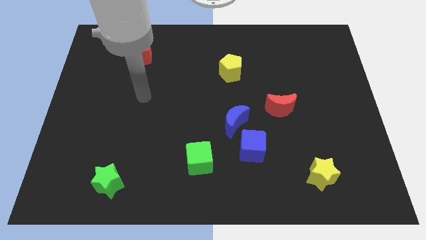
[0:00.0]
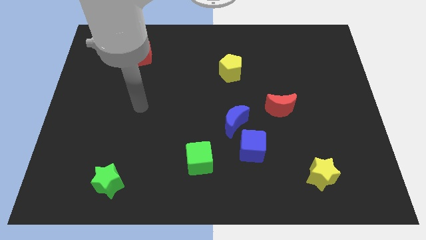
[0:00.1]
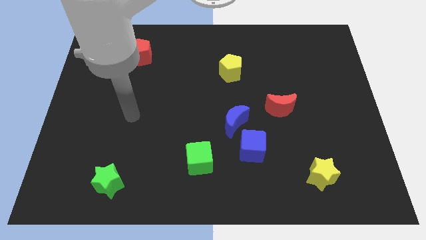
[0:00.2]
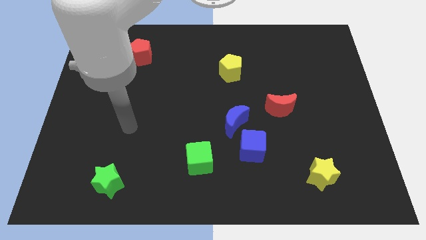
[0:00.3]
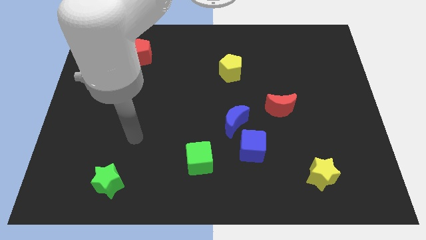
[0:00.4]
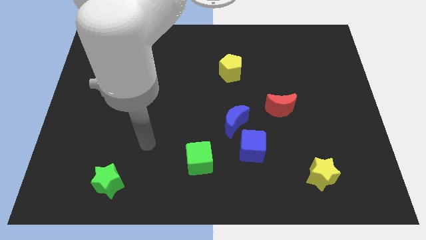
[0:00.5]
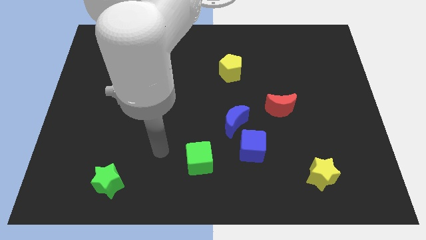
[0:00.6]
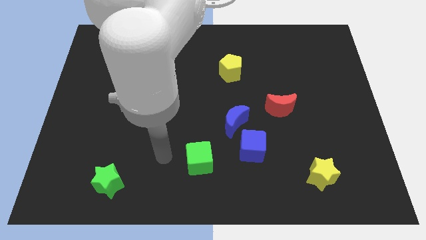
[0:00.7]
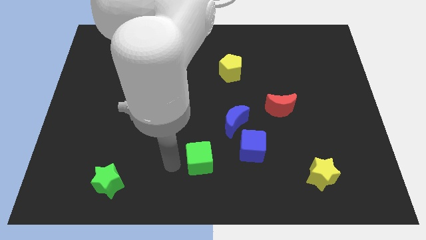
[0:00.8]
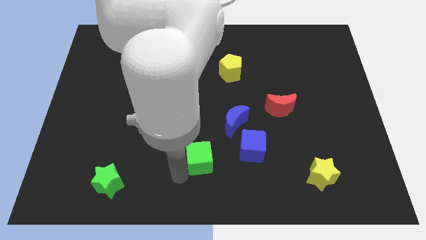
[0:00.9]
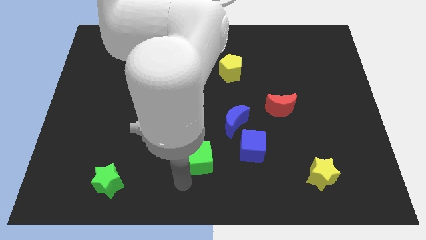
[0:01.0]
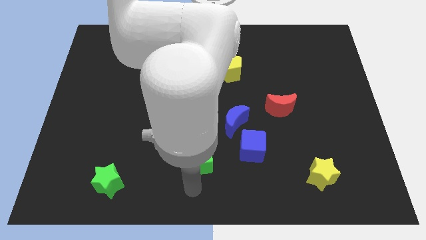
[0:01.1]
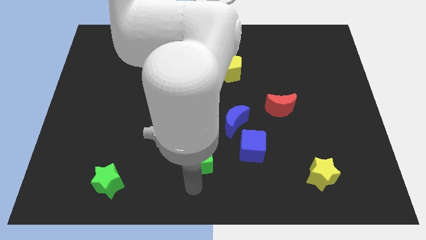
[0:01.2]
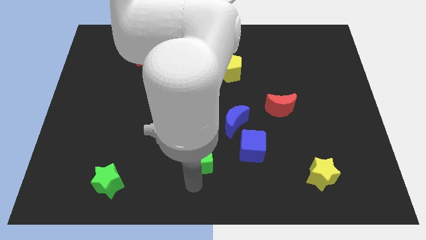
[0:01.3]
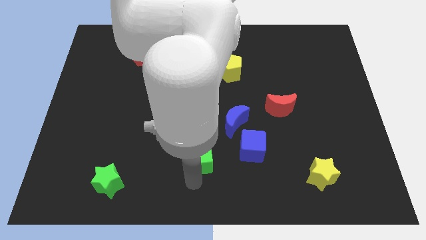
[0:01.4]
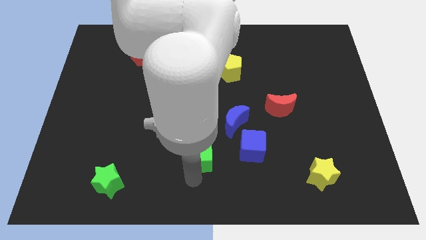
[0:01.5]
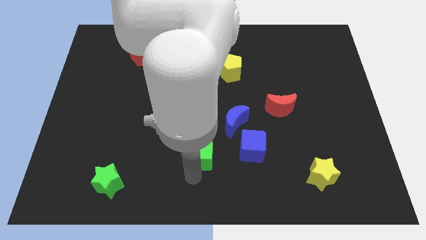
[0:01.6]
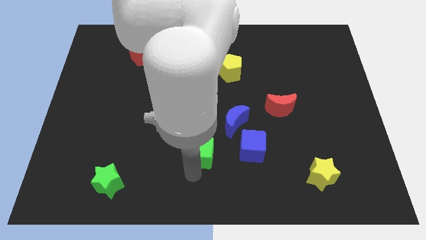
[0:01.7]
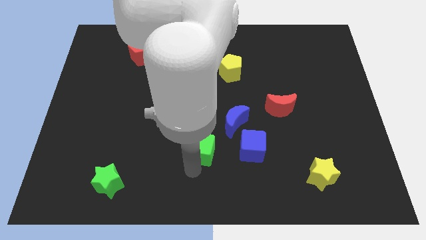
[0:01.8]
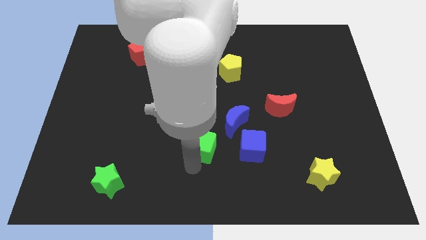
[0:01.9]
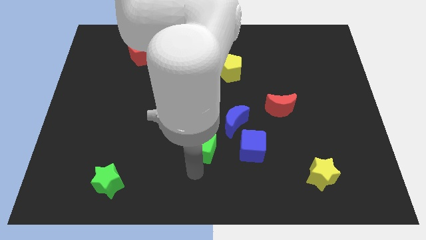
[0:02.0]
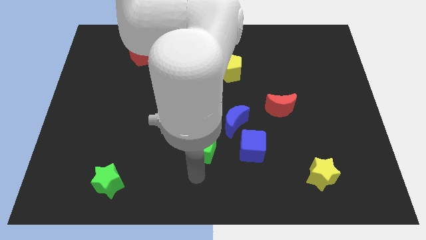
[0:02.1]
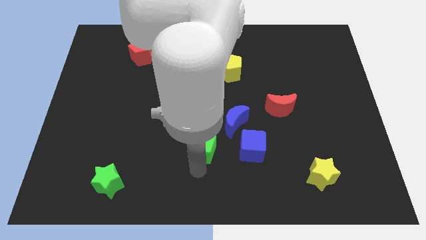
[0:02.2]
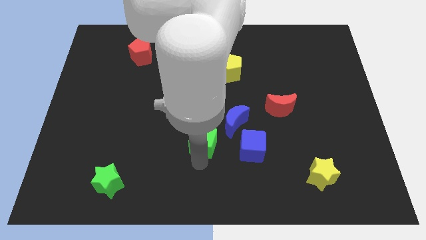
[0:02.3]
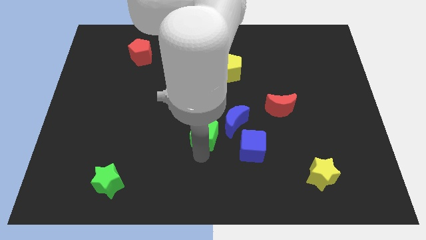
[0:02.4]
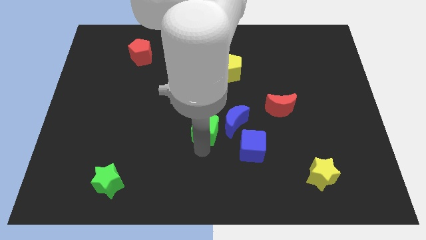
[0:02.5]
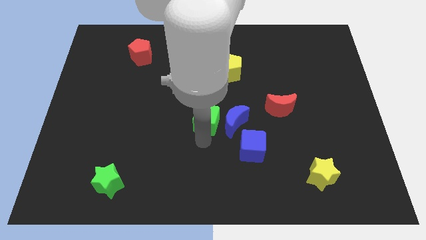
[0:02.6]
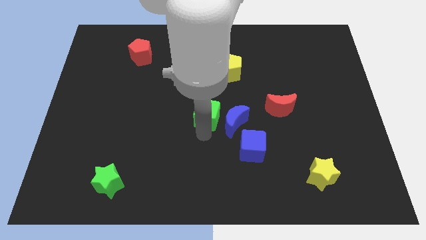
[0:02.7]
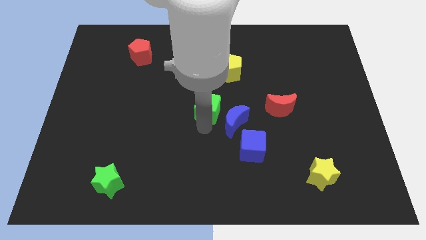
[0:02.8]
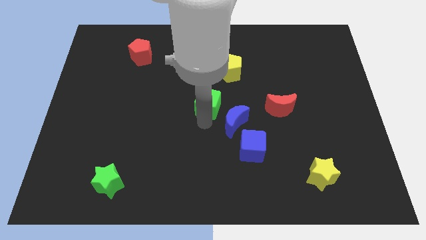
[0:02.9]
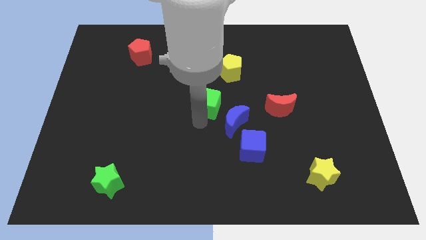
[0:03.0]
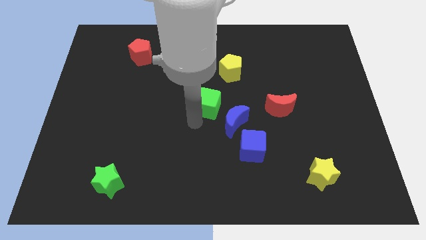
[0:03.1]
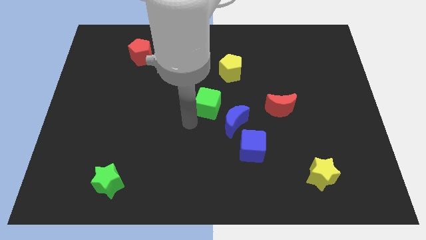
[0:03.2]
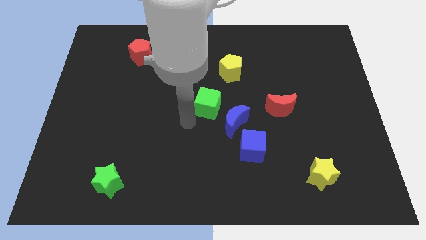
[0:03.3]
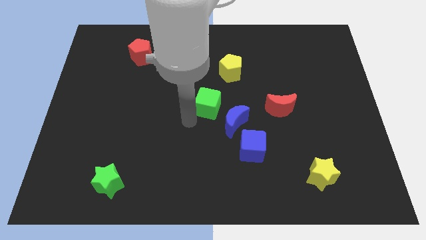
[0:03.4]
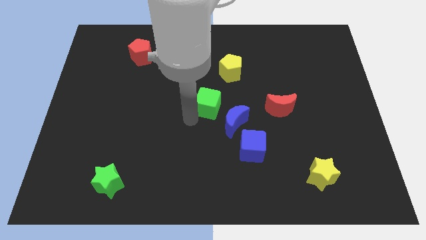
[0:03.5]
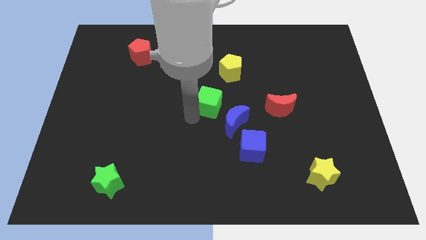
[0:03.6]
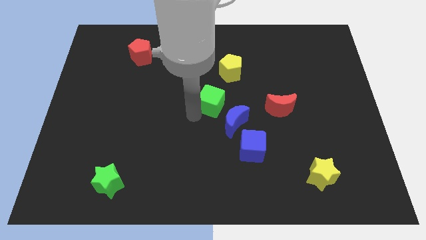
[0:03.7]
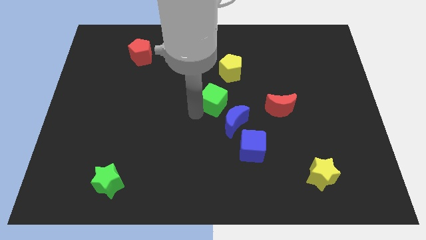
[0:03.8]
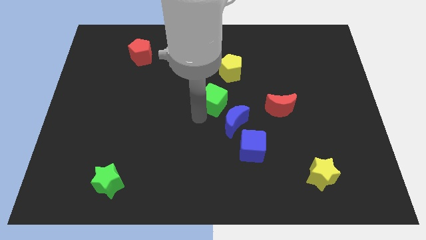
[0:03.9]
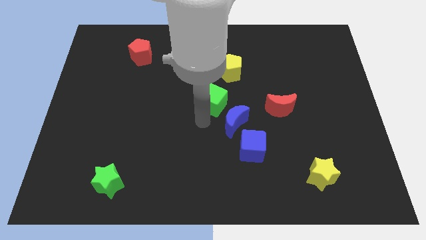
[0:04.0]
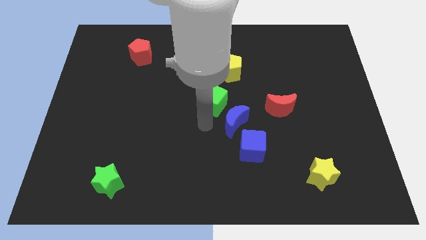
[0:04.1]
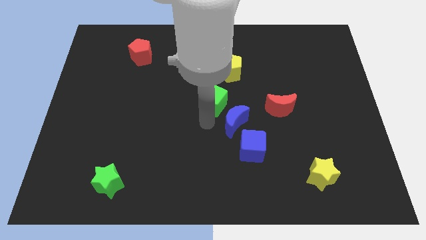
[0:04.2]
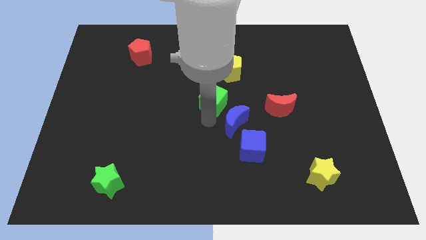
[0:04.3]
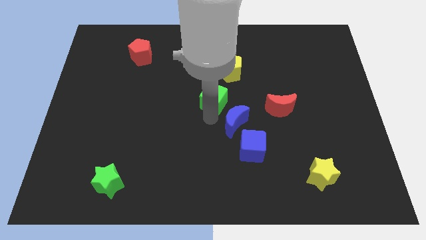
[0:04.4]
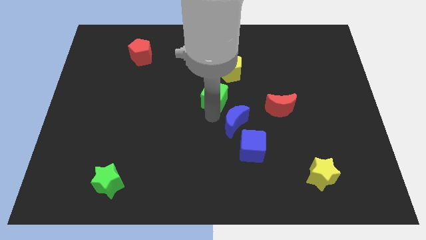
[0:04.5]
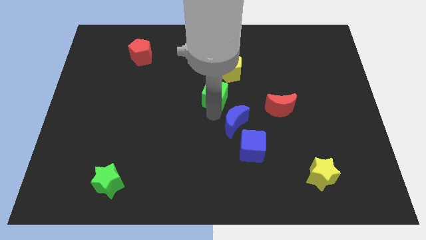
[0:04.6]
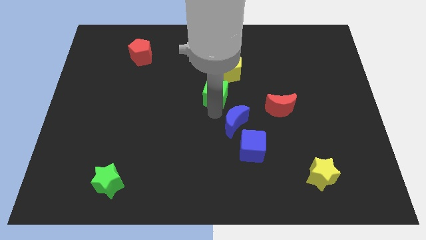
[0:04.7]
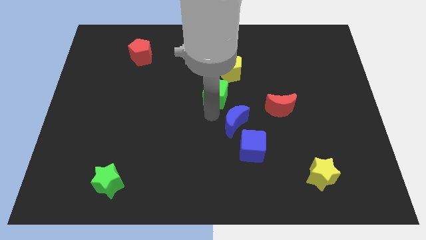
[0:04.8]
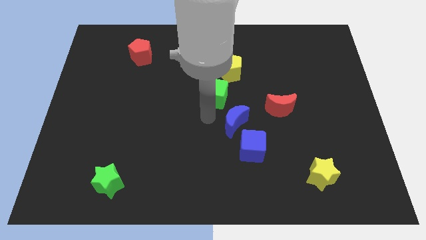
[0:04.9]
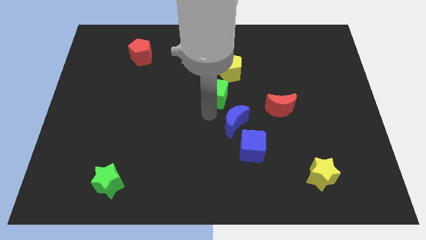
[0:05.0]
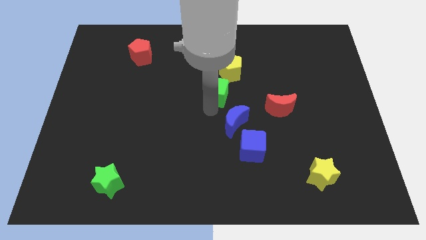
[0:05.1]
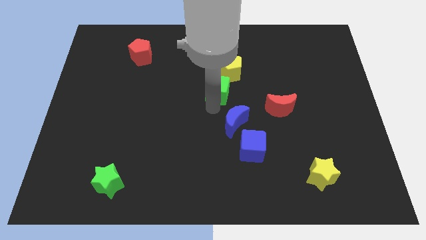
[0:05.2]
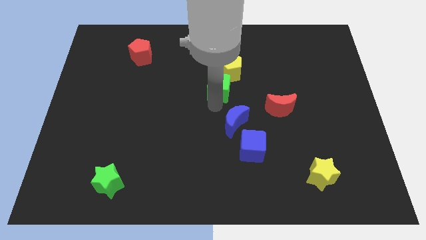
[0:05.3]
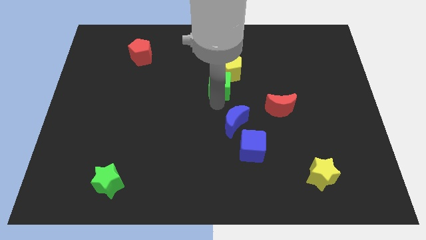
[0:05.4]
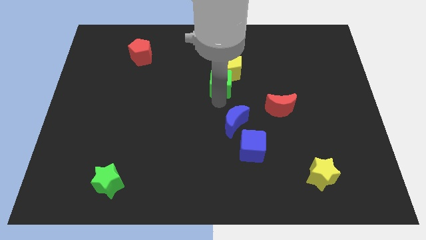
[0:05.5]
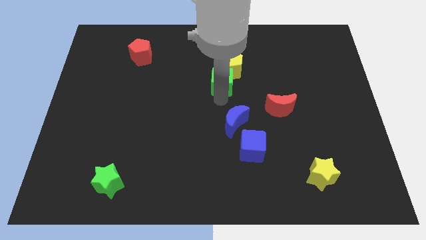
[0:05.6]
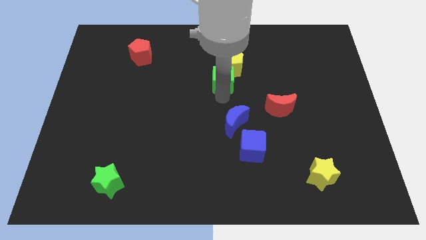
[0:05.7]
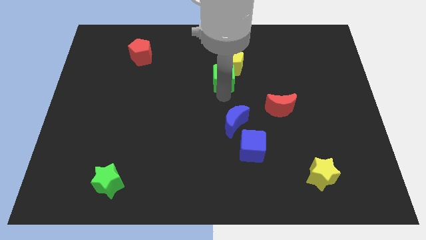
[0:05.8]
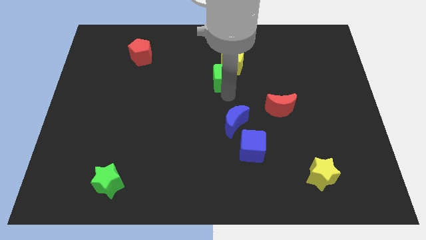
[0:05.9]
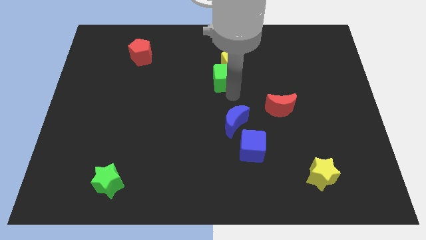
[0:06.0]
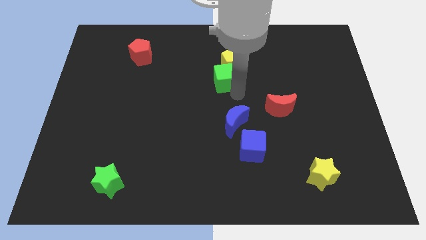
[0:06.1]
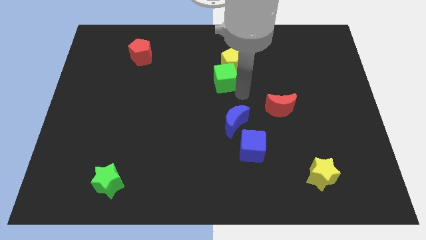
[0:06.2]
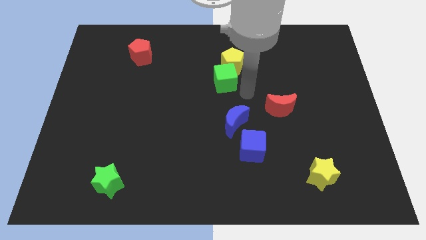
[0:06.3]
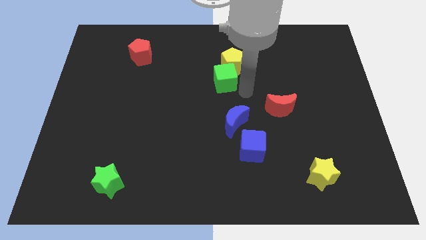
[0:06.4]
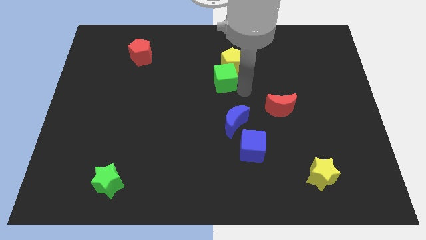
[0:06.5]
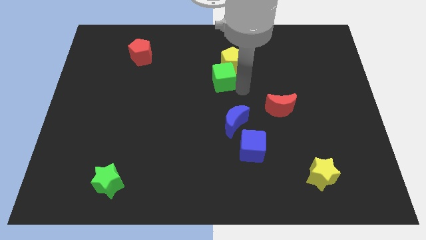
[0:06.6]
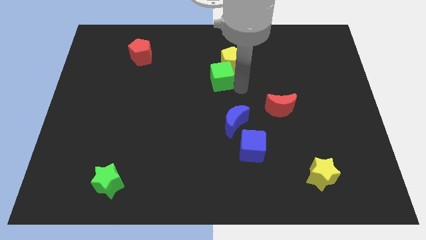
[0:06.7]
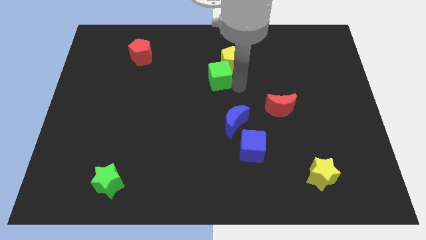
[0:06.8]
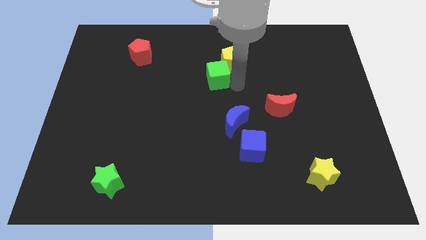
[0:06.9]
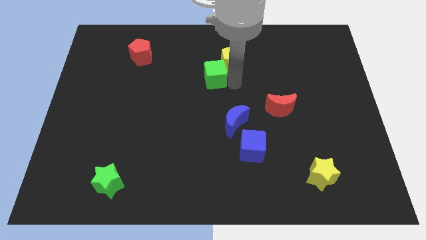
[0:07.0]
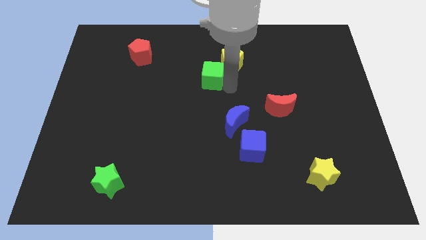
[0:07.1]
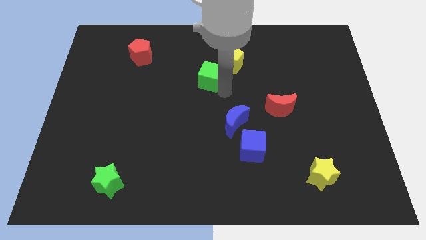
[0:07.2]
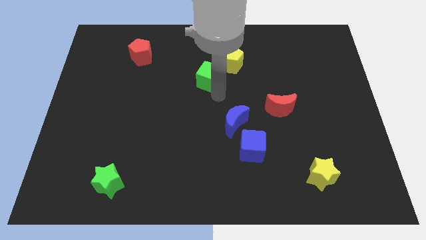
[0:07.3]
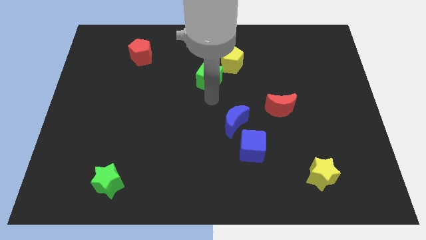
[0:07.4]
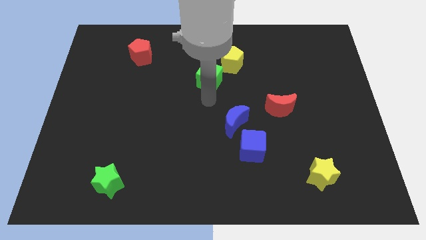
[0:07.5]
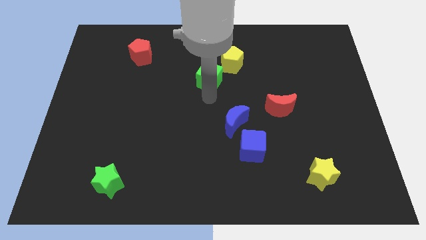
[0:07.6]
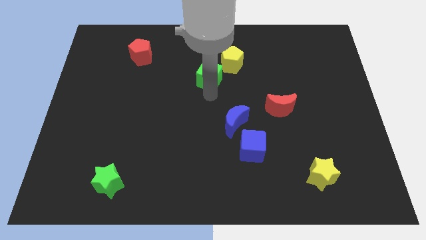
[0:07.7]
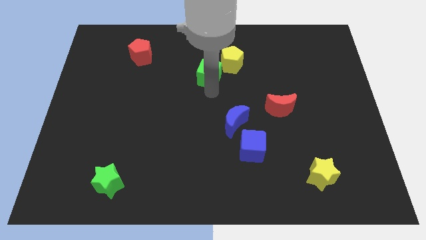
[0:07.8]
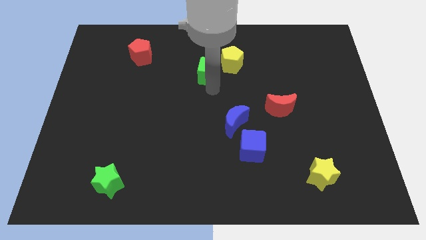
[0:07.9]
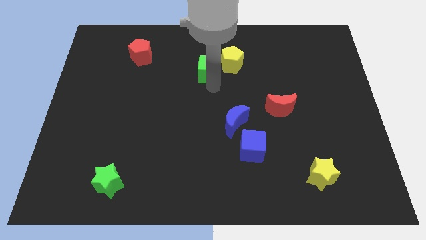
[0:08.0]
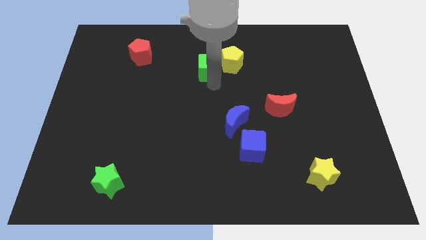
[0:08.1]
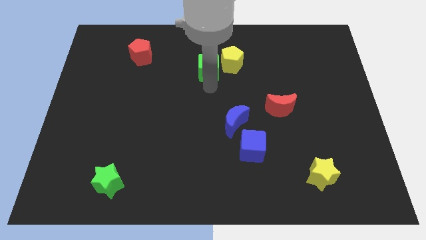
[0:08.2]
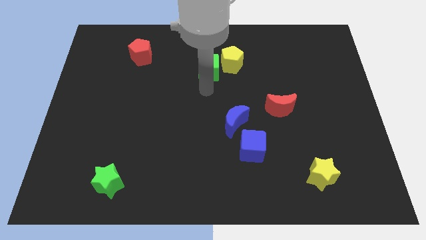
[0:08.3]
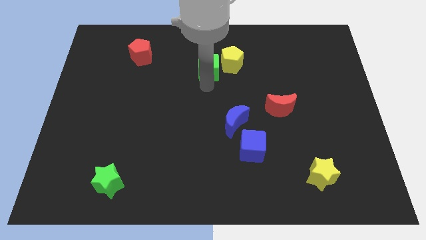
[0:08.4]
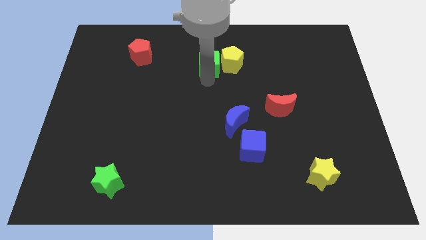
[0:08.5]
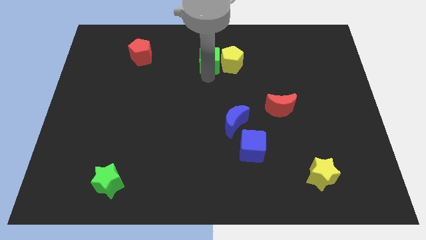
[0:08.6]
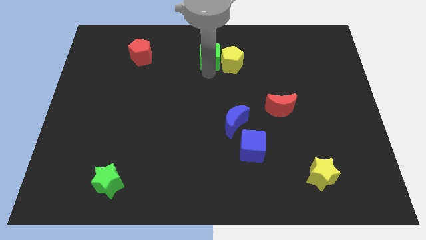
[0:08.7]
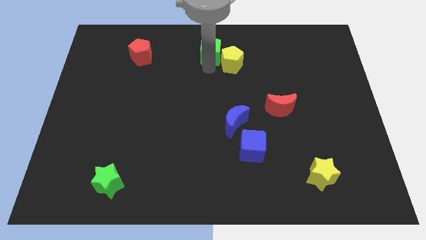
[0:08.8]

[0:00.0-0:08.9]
put the green cube to the towards your base
